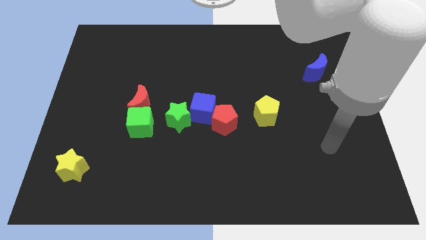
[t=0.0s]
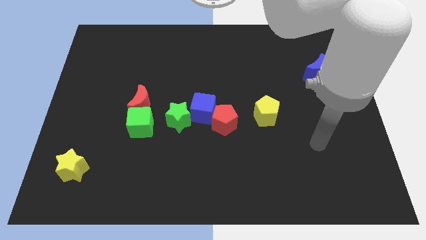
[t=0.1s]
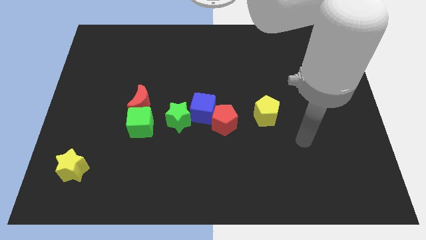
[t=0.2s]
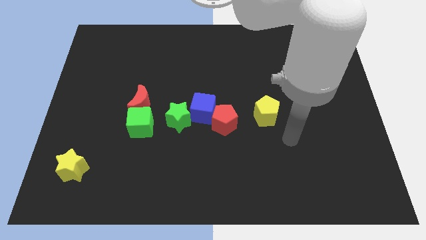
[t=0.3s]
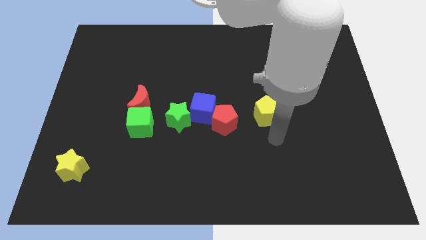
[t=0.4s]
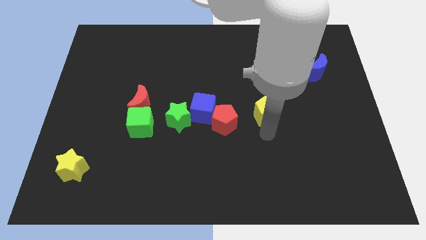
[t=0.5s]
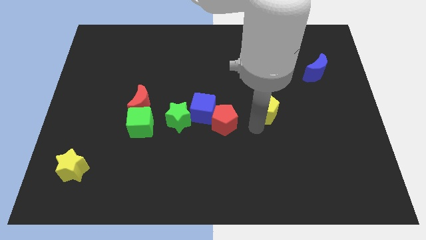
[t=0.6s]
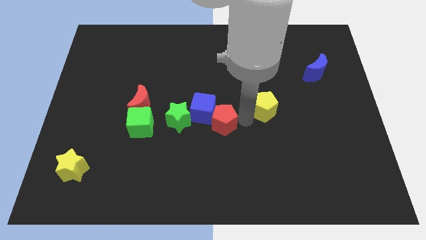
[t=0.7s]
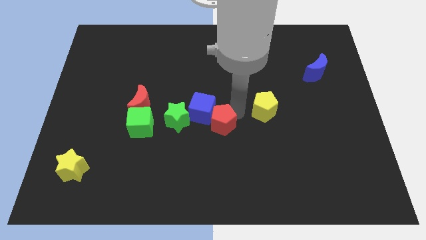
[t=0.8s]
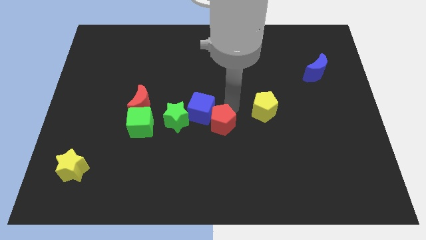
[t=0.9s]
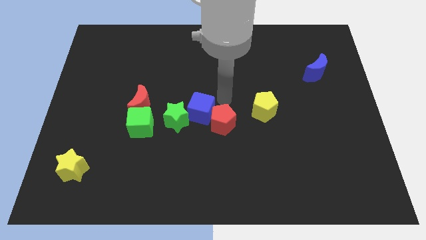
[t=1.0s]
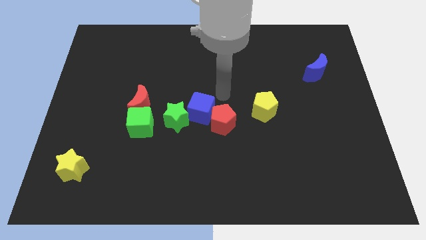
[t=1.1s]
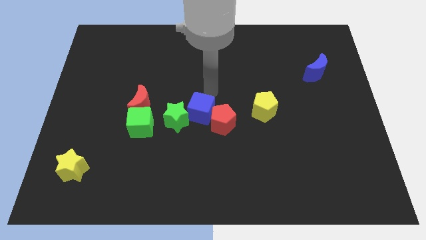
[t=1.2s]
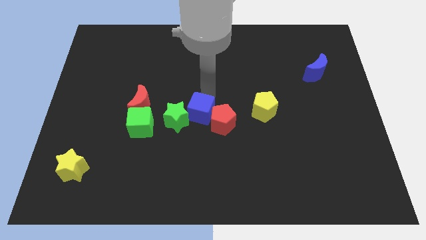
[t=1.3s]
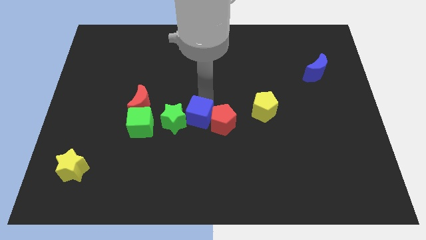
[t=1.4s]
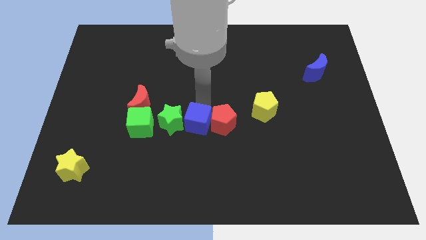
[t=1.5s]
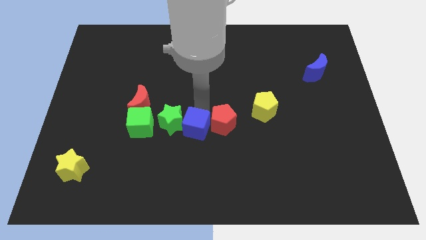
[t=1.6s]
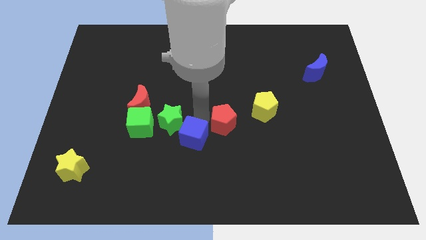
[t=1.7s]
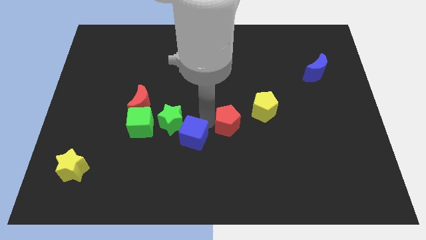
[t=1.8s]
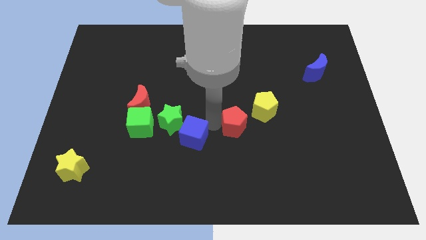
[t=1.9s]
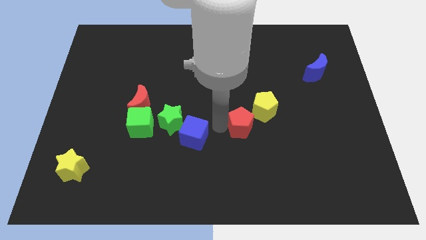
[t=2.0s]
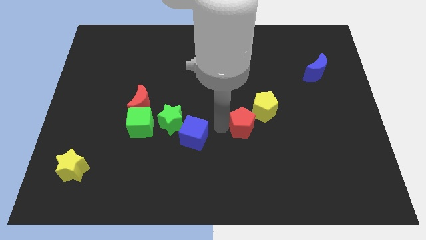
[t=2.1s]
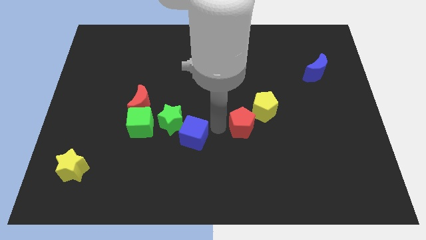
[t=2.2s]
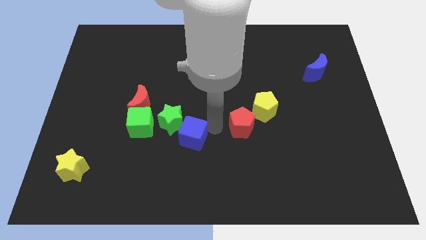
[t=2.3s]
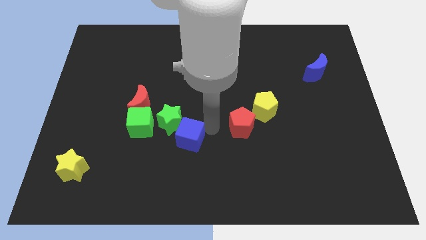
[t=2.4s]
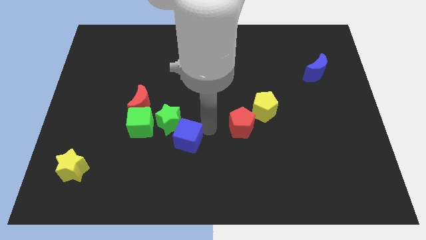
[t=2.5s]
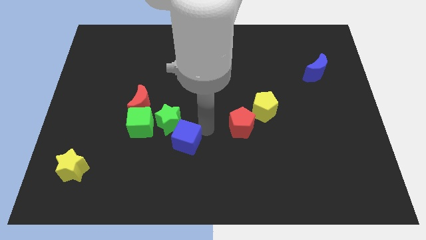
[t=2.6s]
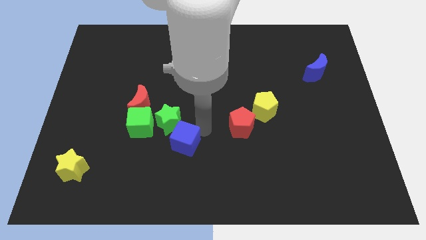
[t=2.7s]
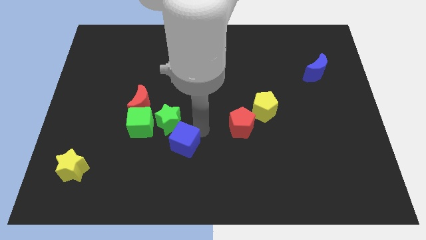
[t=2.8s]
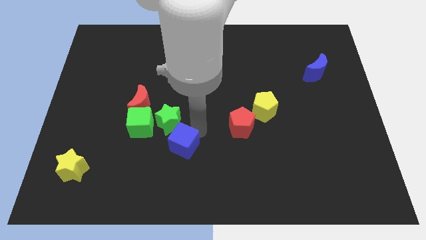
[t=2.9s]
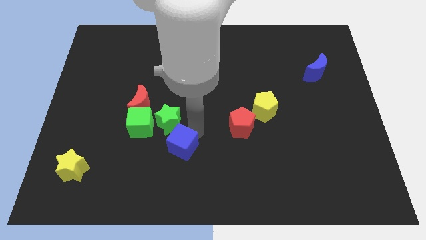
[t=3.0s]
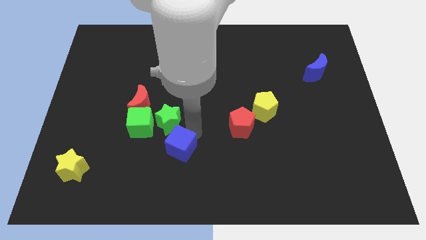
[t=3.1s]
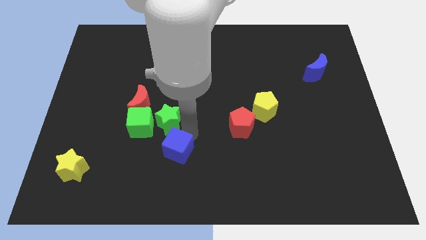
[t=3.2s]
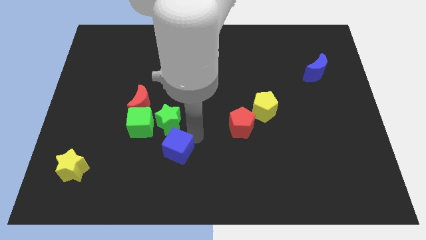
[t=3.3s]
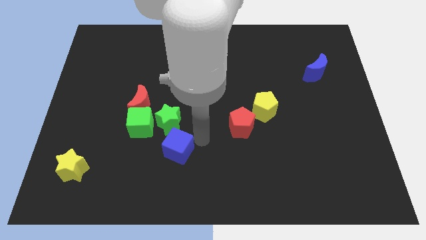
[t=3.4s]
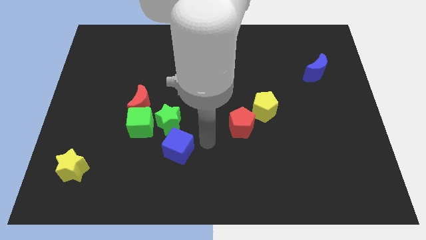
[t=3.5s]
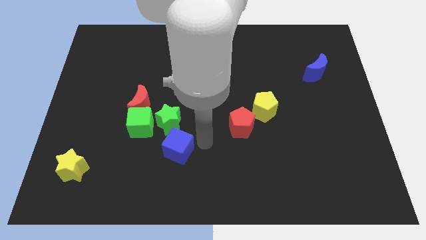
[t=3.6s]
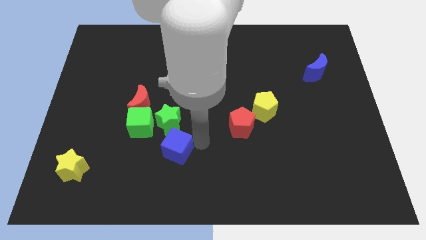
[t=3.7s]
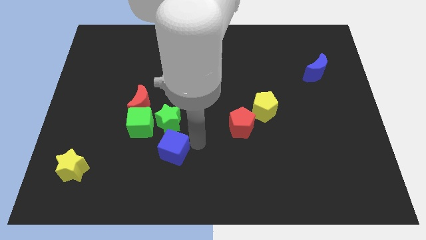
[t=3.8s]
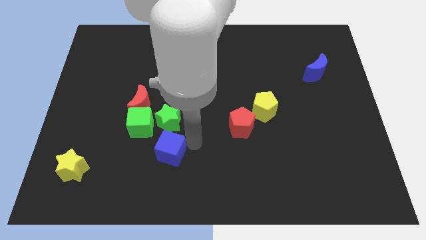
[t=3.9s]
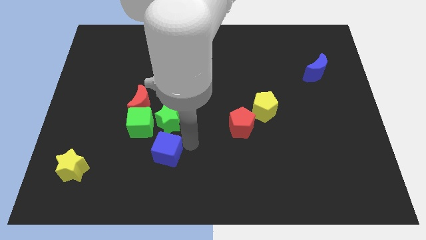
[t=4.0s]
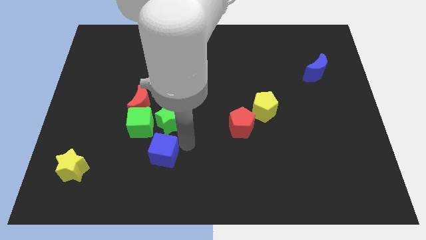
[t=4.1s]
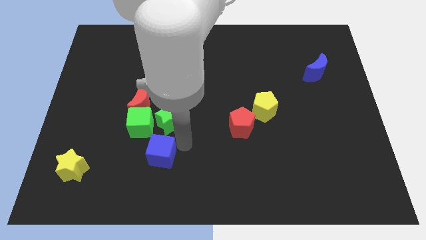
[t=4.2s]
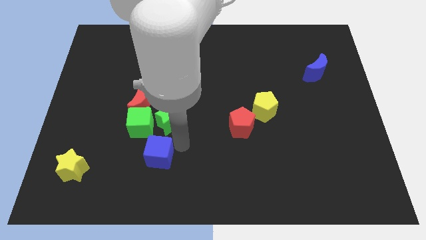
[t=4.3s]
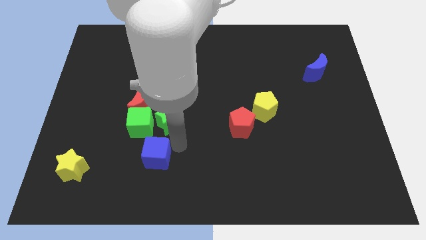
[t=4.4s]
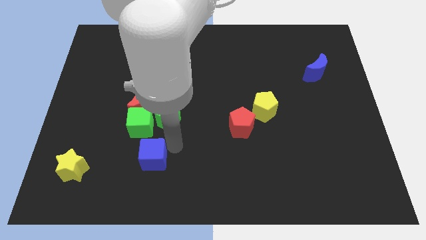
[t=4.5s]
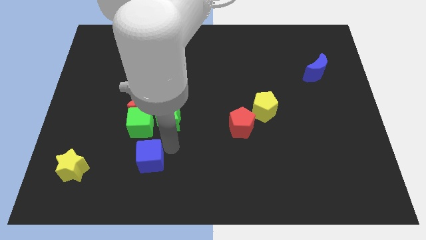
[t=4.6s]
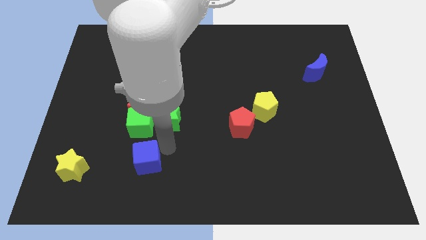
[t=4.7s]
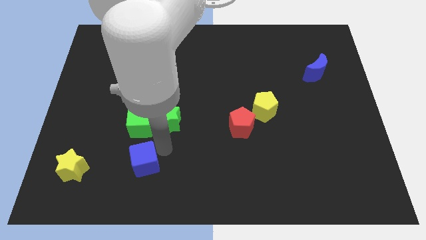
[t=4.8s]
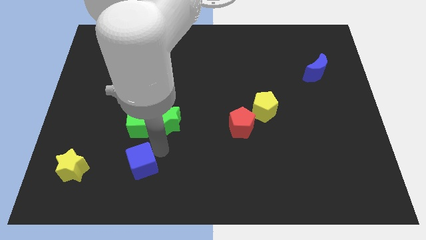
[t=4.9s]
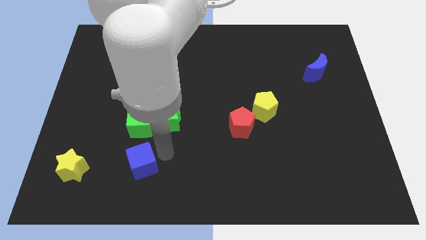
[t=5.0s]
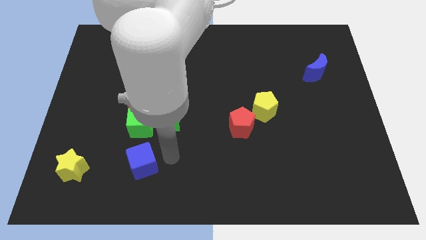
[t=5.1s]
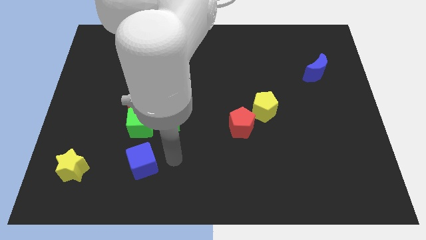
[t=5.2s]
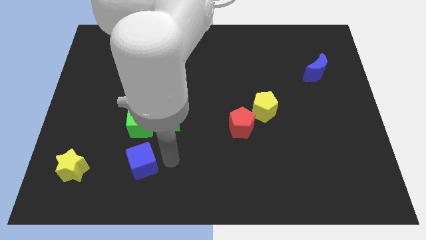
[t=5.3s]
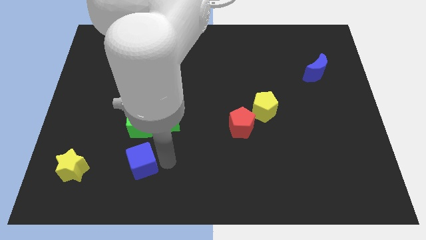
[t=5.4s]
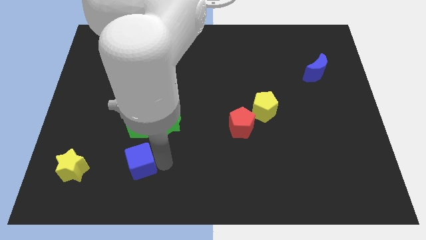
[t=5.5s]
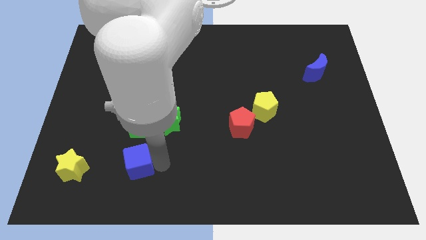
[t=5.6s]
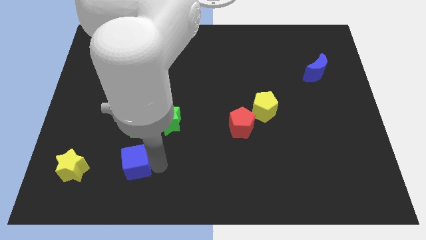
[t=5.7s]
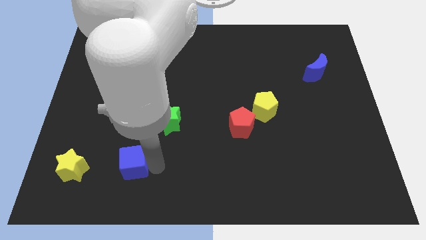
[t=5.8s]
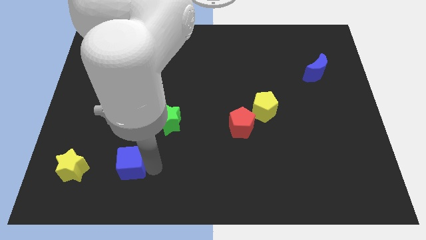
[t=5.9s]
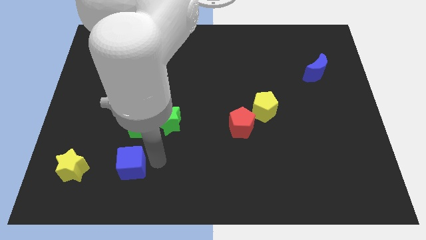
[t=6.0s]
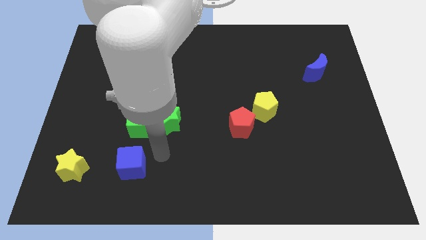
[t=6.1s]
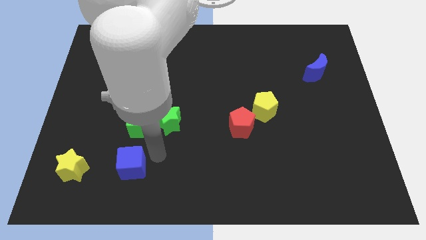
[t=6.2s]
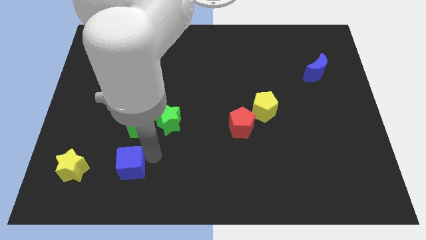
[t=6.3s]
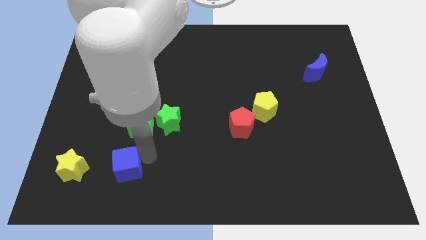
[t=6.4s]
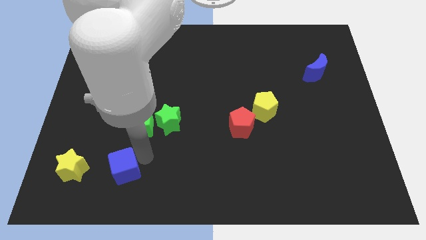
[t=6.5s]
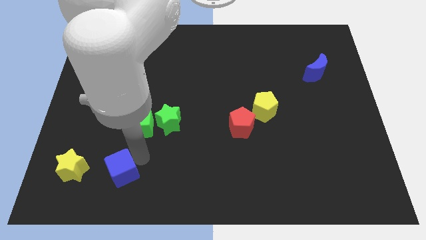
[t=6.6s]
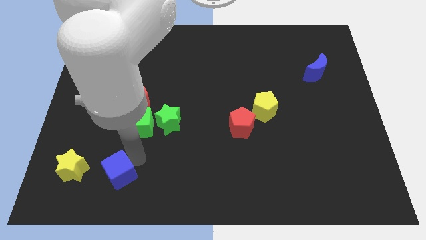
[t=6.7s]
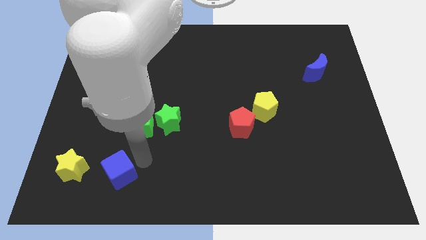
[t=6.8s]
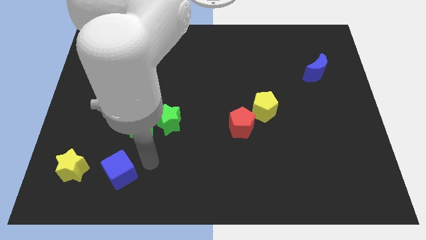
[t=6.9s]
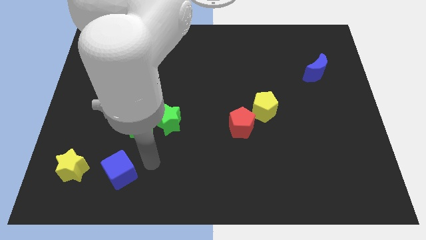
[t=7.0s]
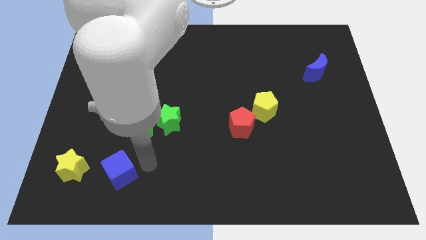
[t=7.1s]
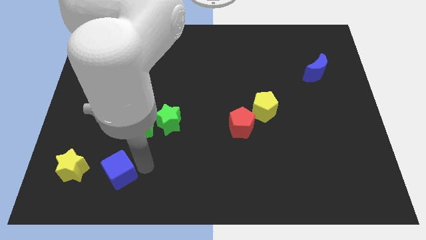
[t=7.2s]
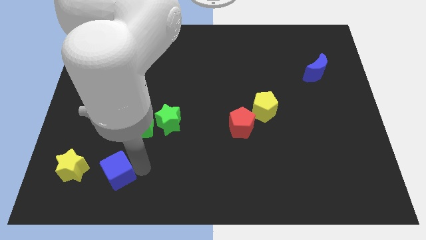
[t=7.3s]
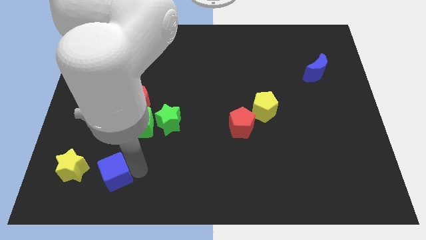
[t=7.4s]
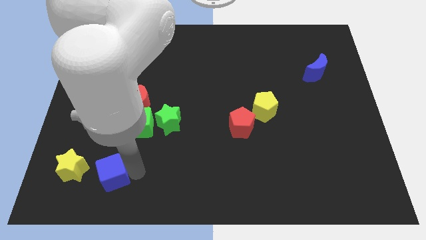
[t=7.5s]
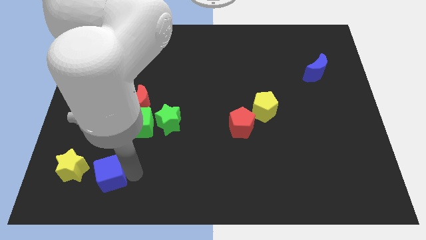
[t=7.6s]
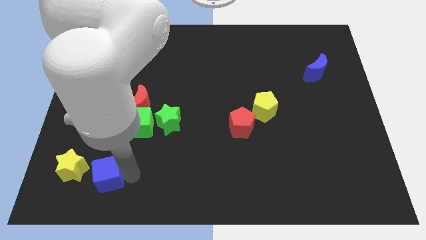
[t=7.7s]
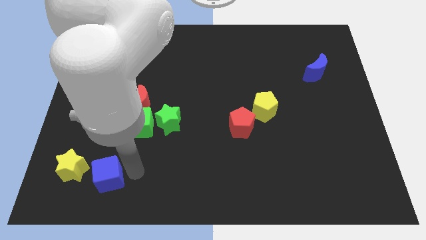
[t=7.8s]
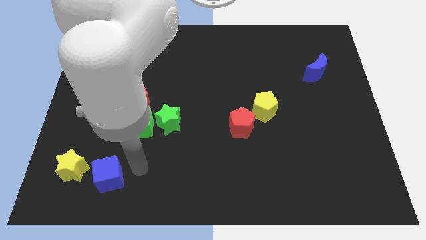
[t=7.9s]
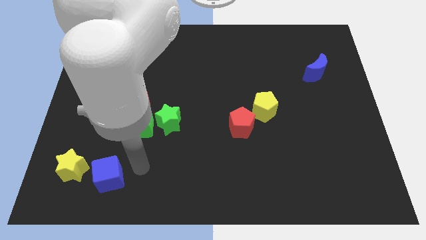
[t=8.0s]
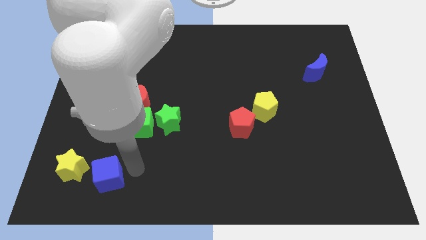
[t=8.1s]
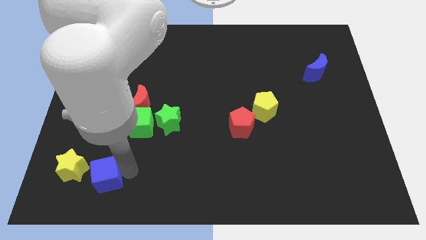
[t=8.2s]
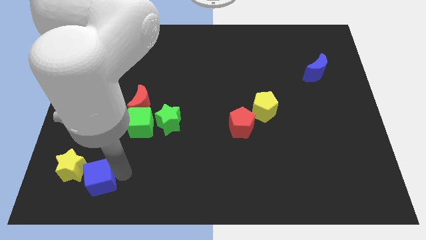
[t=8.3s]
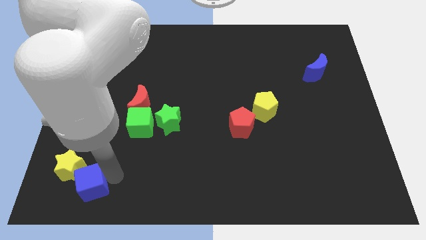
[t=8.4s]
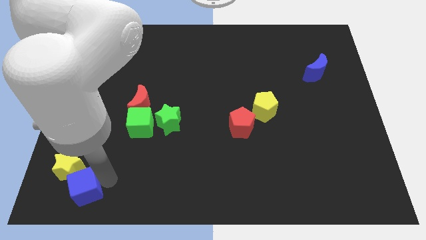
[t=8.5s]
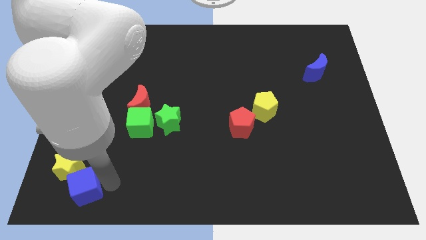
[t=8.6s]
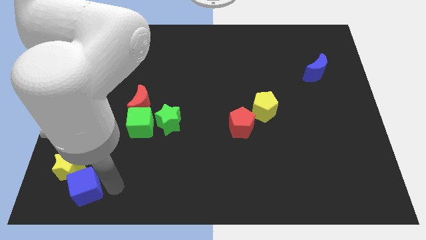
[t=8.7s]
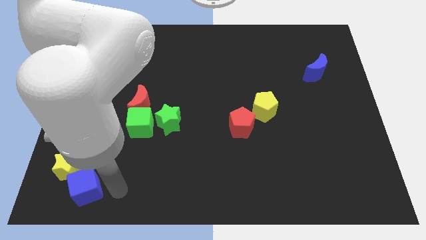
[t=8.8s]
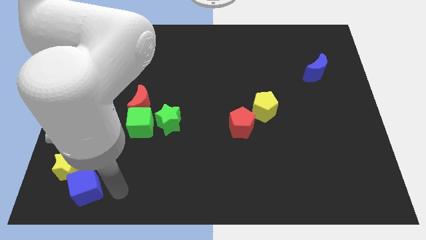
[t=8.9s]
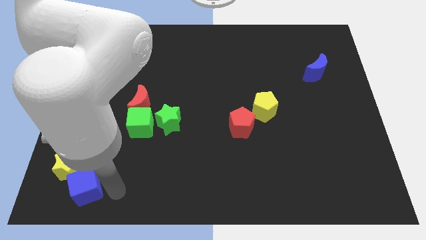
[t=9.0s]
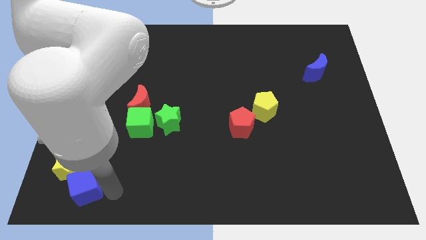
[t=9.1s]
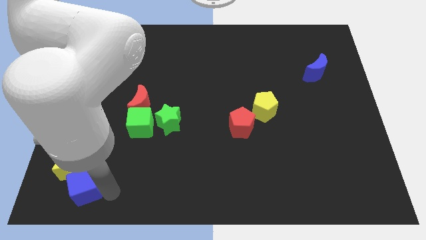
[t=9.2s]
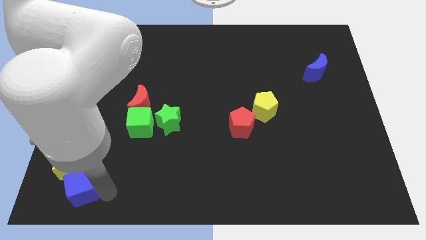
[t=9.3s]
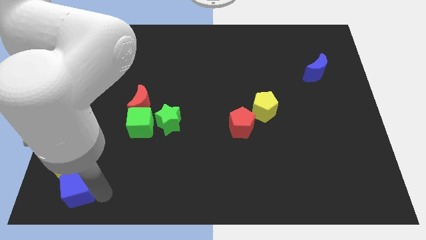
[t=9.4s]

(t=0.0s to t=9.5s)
slide the blue cube to the bottom left corner
